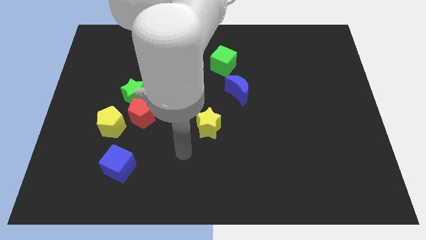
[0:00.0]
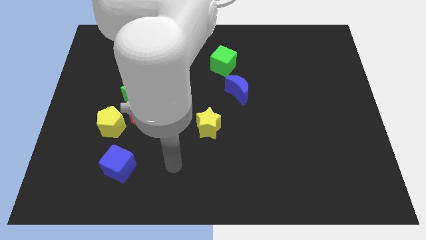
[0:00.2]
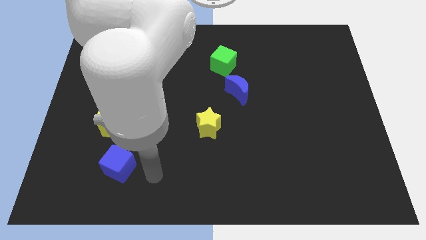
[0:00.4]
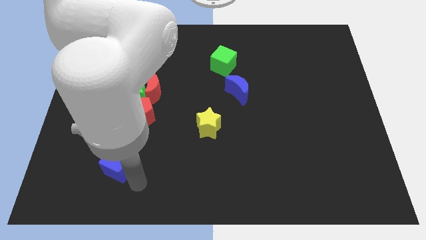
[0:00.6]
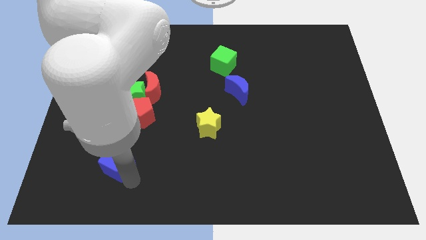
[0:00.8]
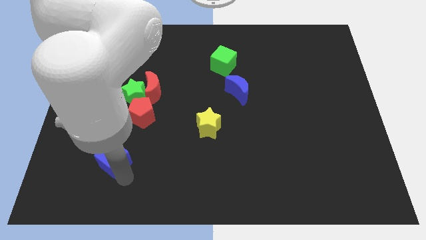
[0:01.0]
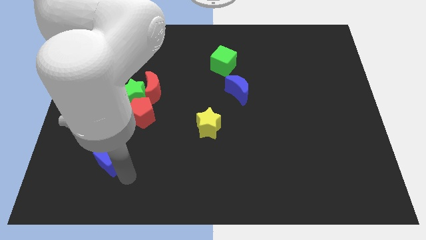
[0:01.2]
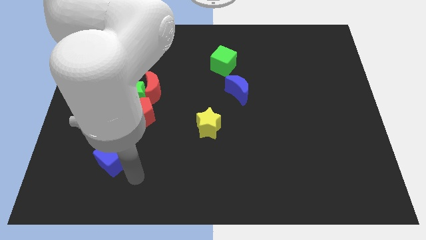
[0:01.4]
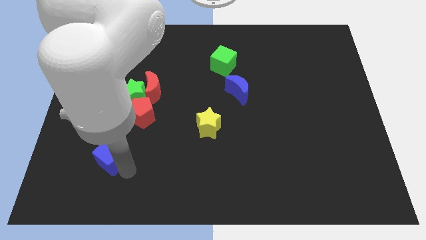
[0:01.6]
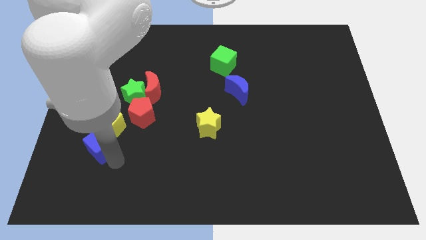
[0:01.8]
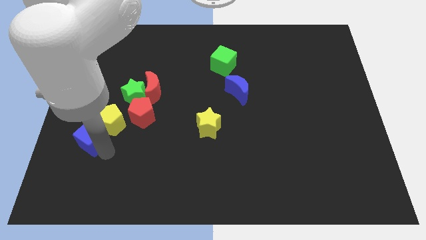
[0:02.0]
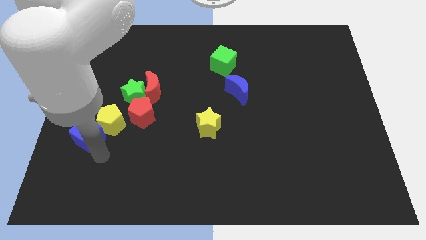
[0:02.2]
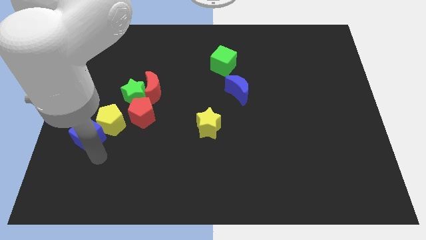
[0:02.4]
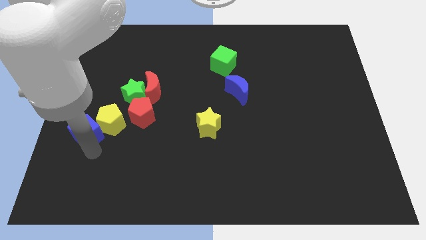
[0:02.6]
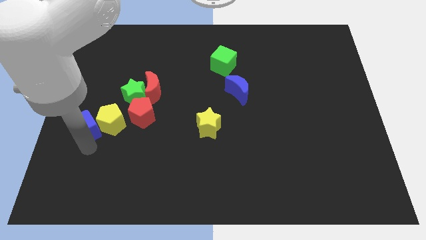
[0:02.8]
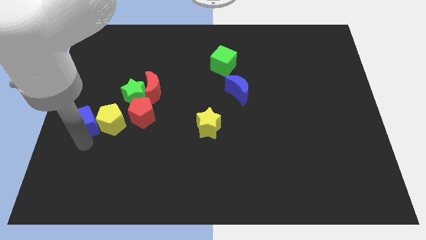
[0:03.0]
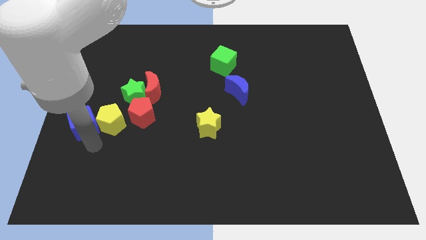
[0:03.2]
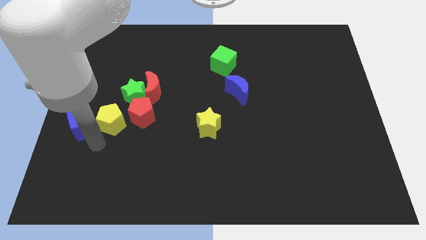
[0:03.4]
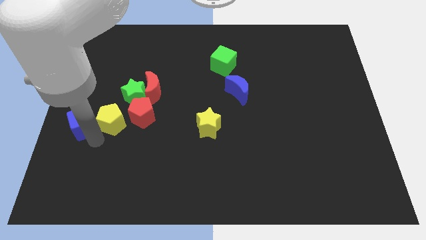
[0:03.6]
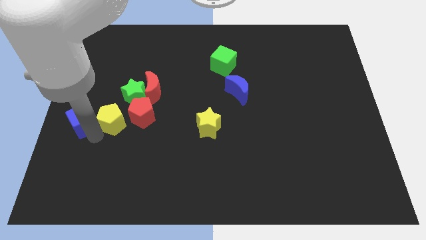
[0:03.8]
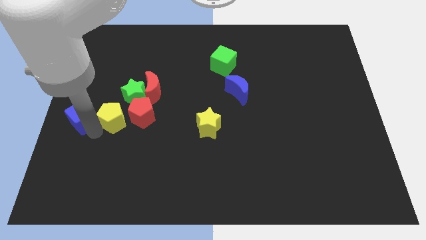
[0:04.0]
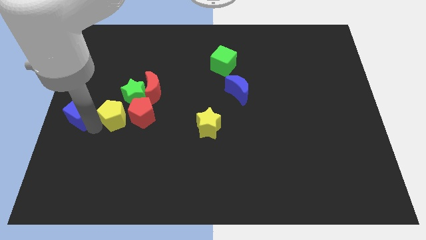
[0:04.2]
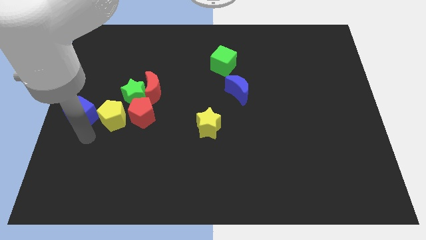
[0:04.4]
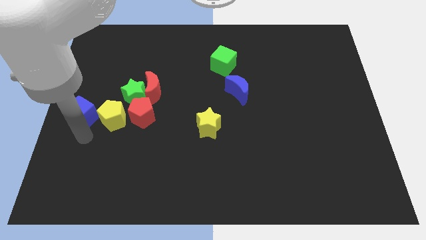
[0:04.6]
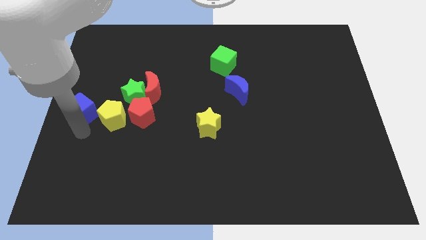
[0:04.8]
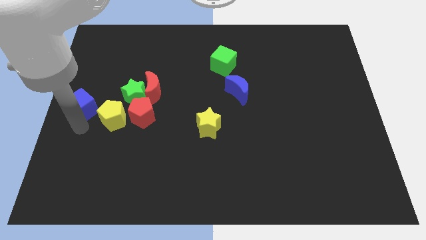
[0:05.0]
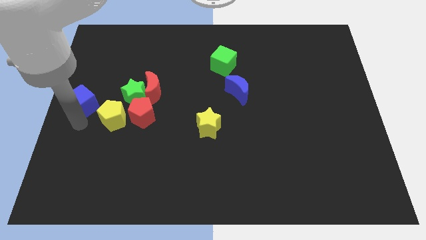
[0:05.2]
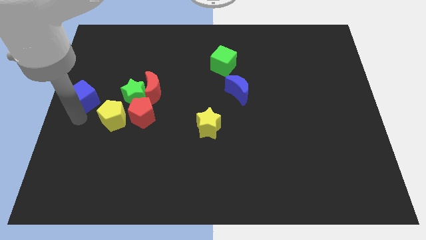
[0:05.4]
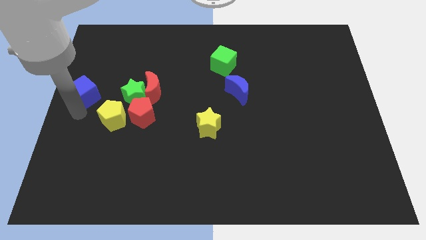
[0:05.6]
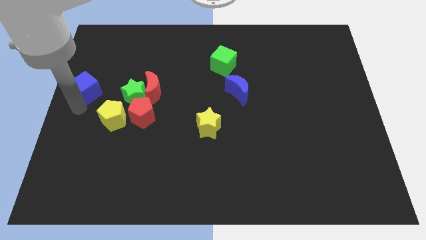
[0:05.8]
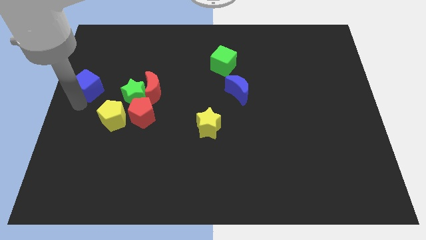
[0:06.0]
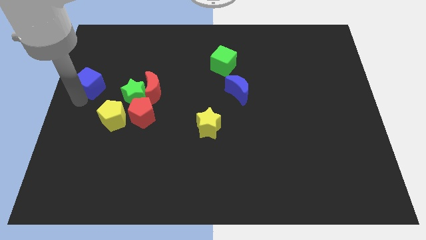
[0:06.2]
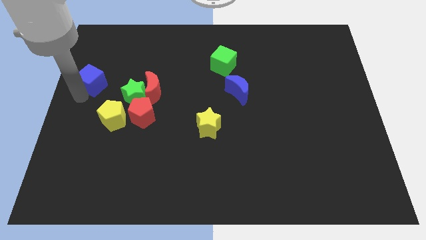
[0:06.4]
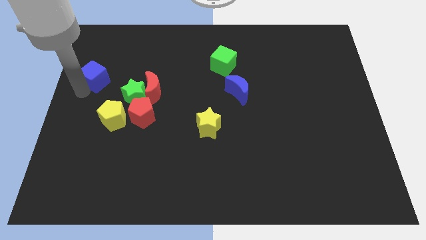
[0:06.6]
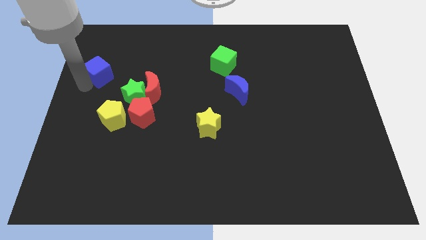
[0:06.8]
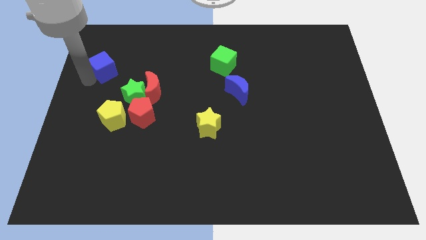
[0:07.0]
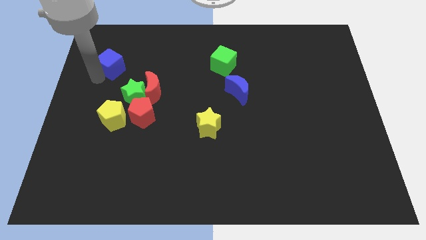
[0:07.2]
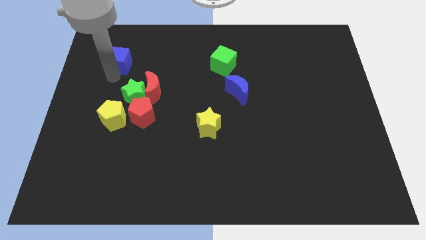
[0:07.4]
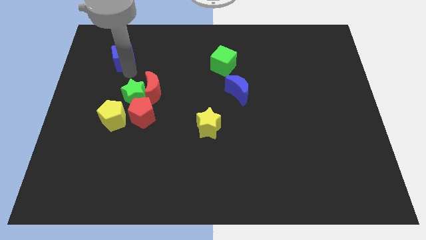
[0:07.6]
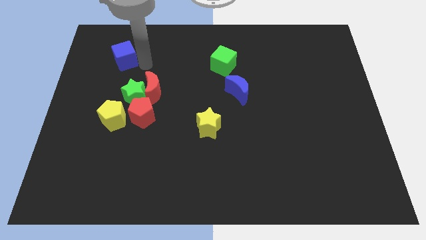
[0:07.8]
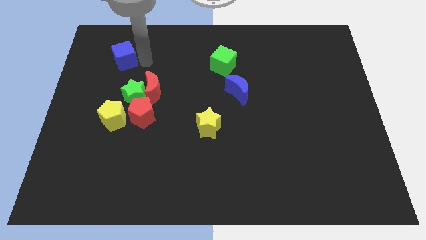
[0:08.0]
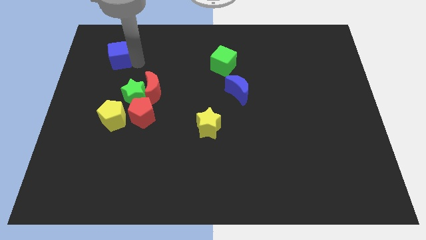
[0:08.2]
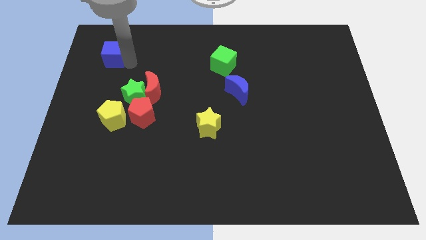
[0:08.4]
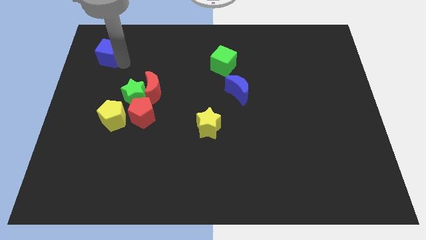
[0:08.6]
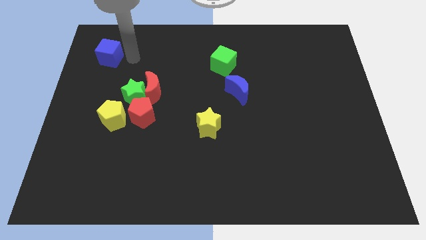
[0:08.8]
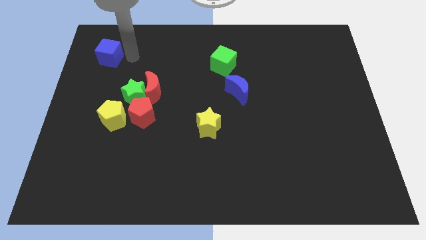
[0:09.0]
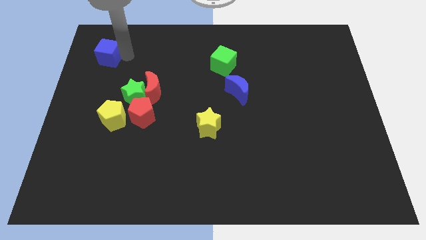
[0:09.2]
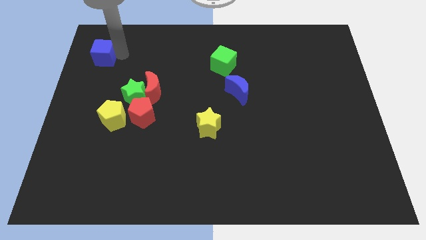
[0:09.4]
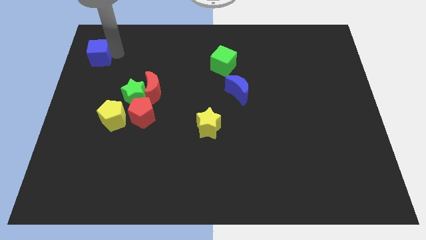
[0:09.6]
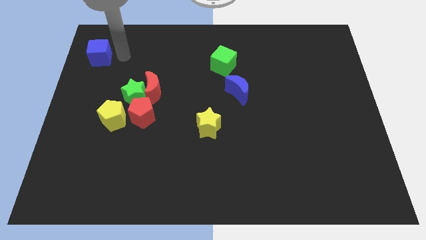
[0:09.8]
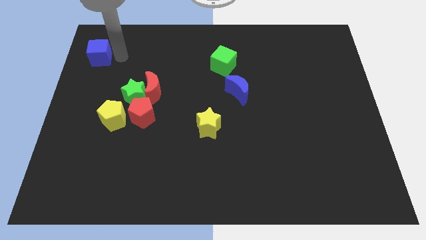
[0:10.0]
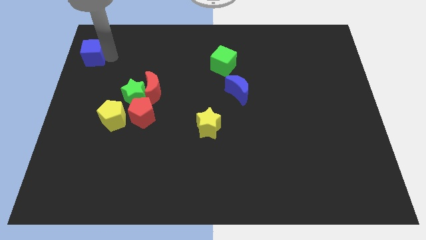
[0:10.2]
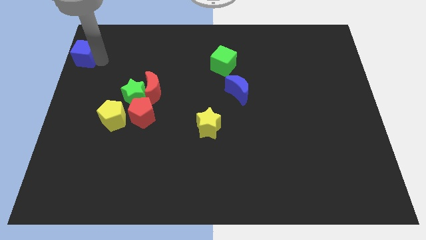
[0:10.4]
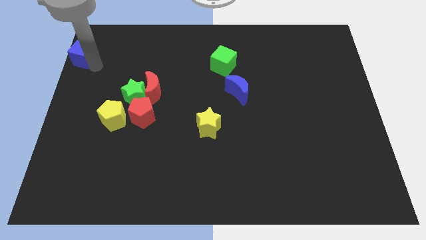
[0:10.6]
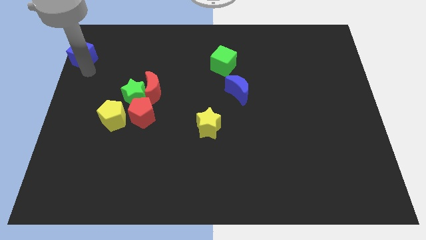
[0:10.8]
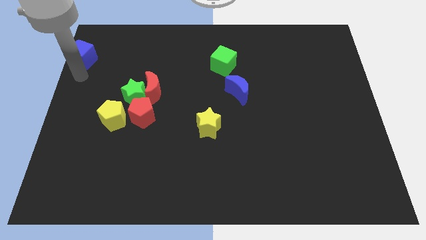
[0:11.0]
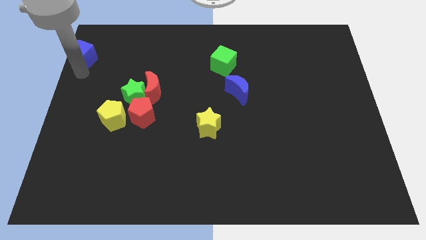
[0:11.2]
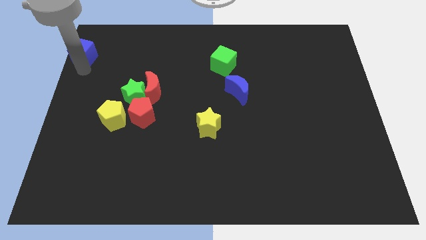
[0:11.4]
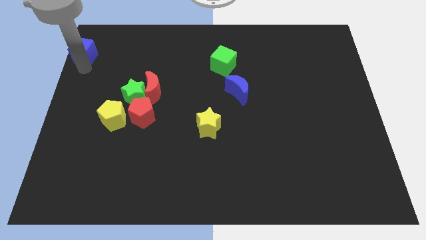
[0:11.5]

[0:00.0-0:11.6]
push the blue cube to the top left of the board

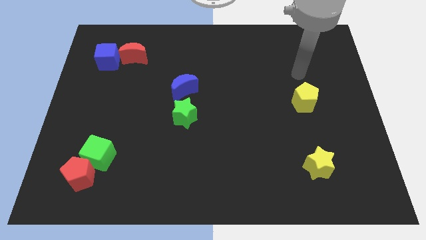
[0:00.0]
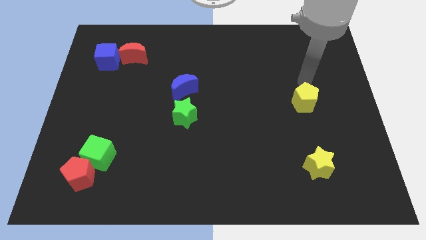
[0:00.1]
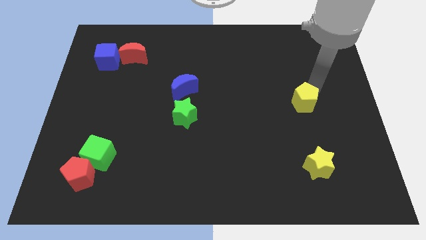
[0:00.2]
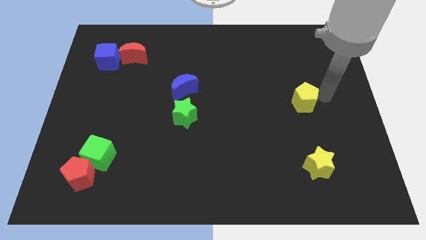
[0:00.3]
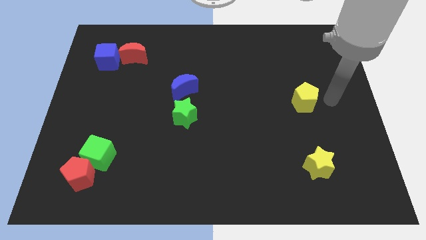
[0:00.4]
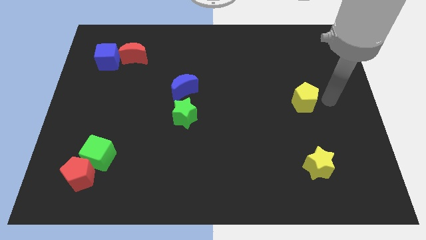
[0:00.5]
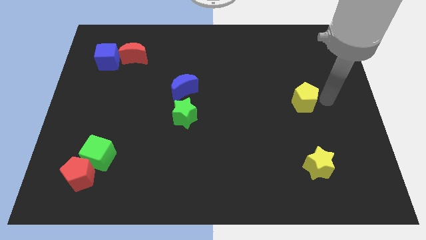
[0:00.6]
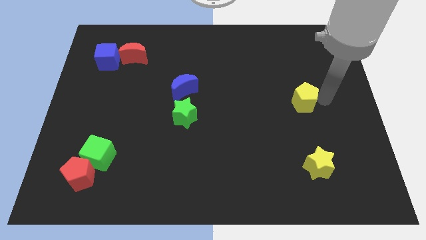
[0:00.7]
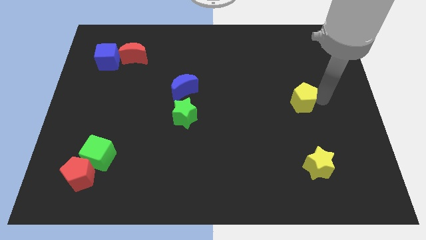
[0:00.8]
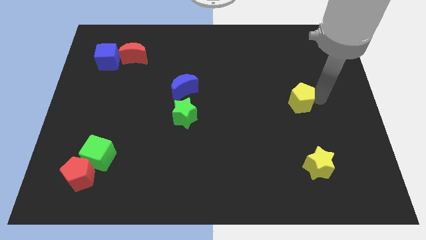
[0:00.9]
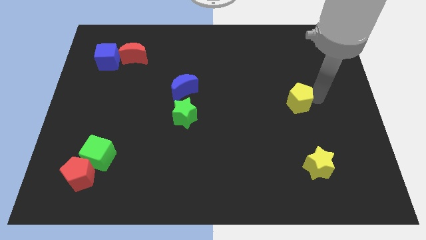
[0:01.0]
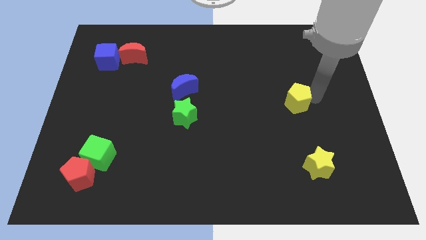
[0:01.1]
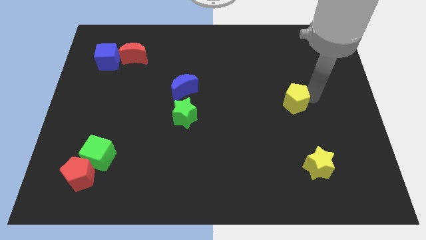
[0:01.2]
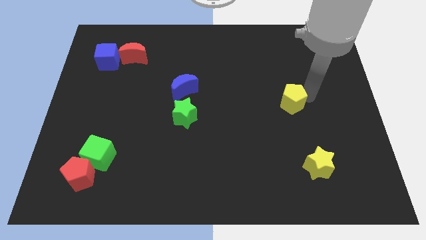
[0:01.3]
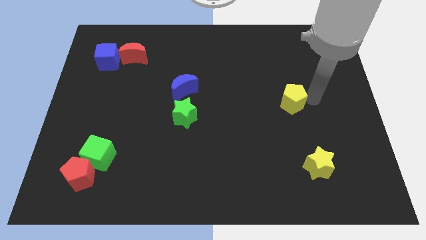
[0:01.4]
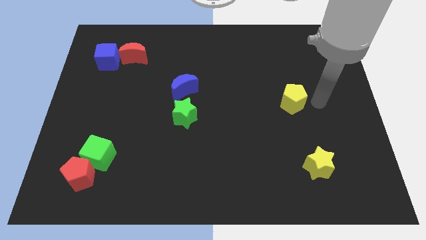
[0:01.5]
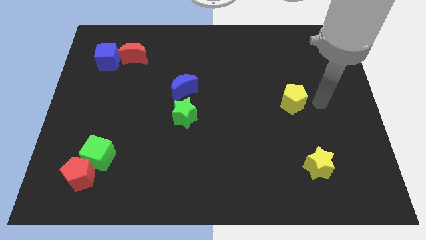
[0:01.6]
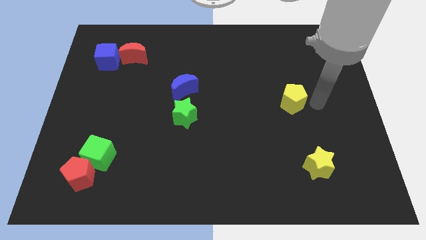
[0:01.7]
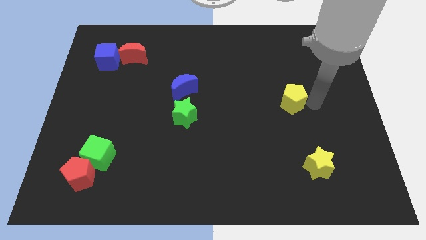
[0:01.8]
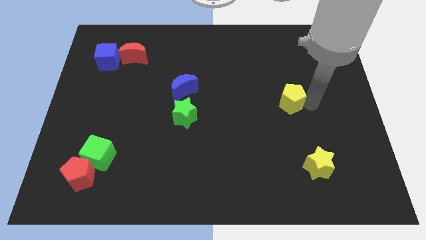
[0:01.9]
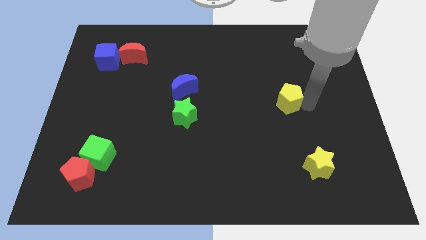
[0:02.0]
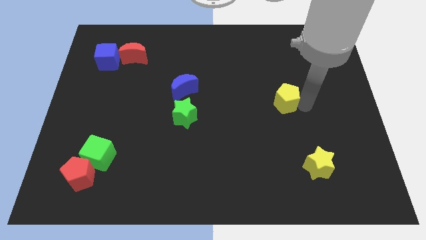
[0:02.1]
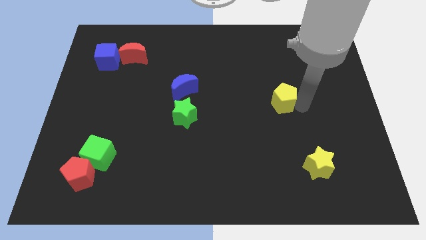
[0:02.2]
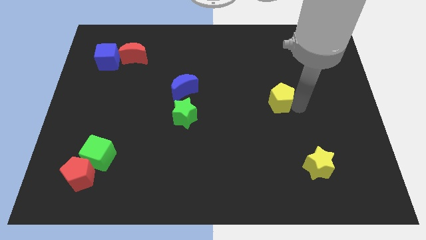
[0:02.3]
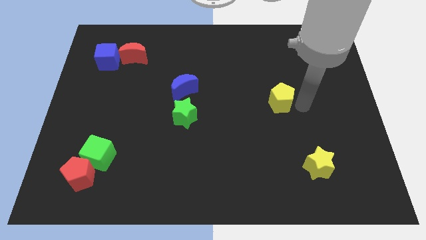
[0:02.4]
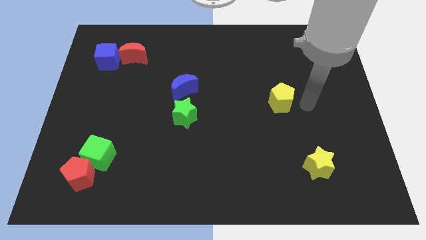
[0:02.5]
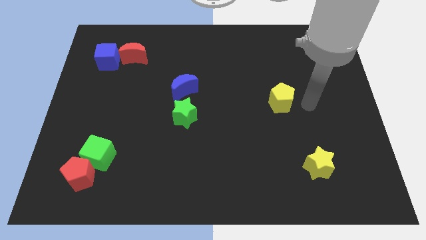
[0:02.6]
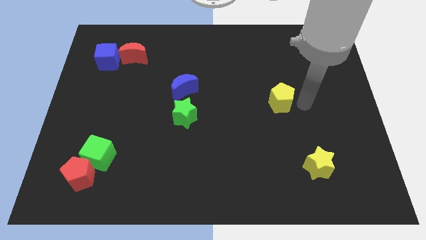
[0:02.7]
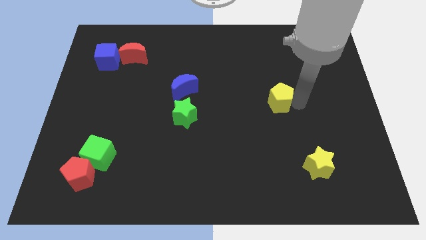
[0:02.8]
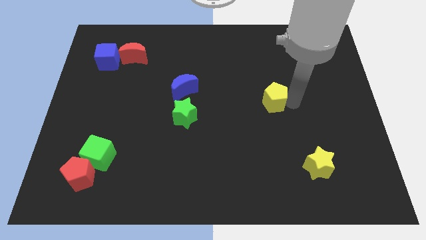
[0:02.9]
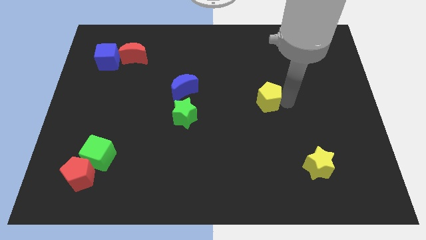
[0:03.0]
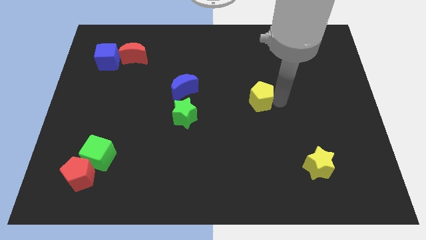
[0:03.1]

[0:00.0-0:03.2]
push the yellow pentagon to the center of the board
